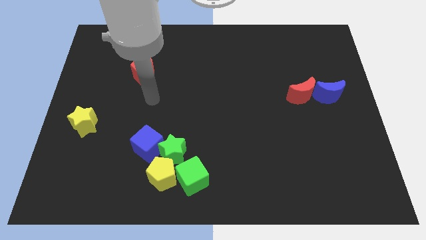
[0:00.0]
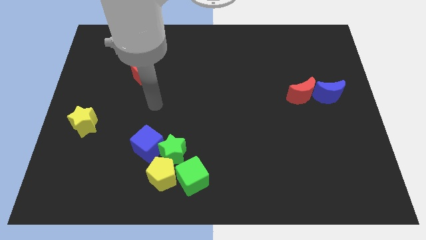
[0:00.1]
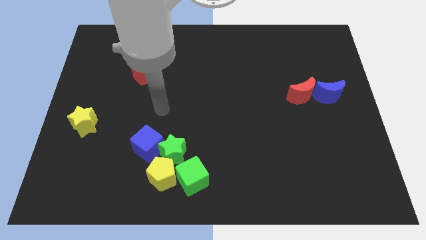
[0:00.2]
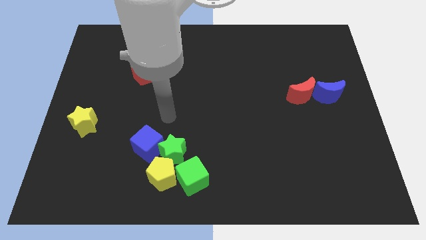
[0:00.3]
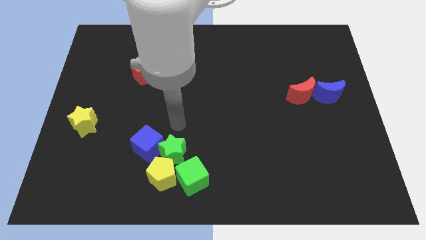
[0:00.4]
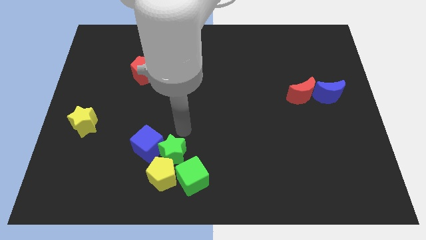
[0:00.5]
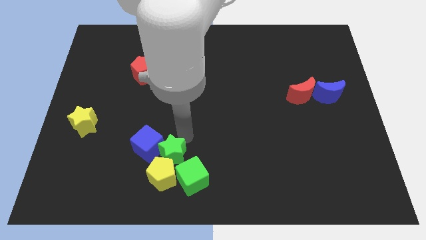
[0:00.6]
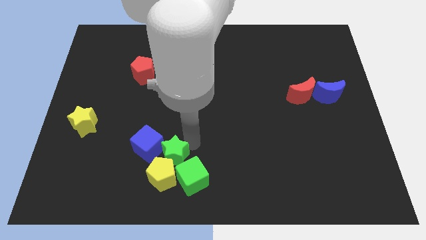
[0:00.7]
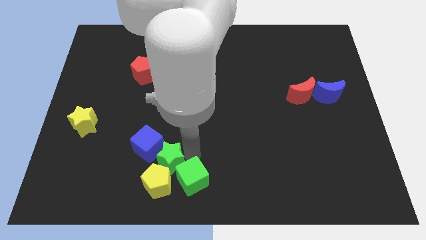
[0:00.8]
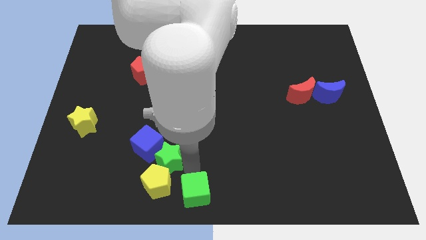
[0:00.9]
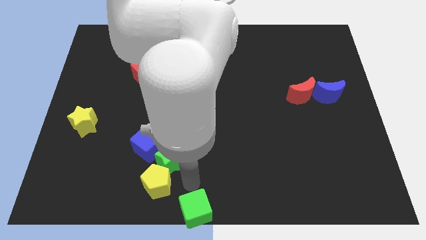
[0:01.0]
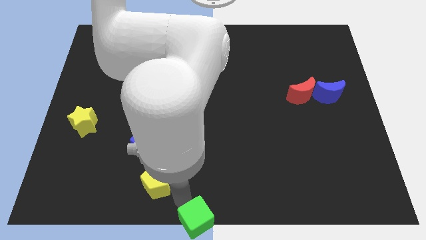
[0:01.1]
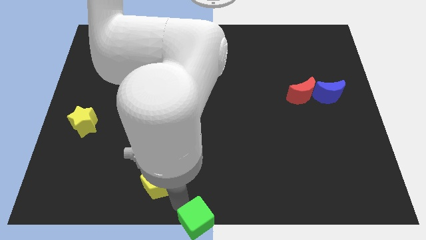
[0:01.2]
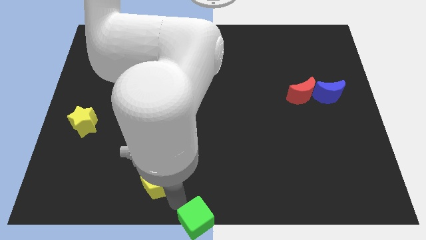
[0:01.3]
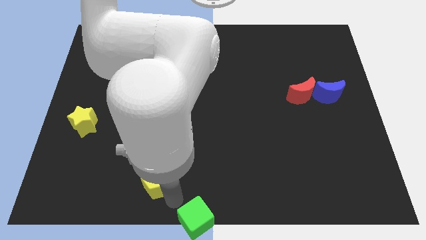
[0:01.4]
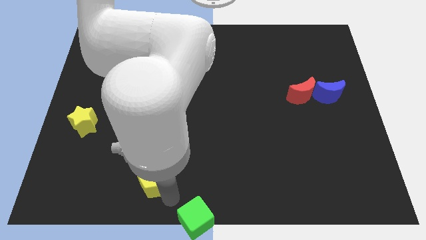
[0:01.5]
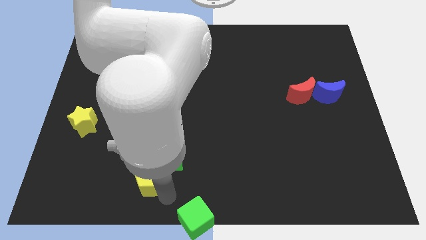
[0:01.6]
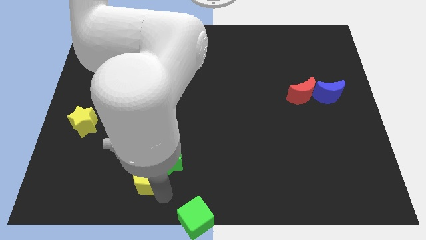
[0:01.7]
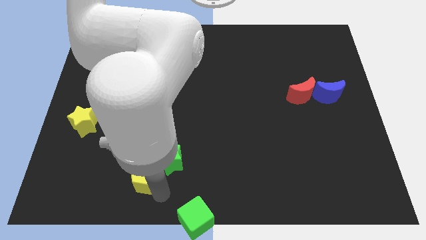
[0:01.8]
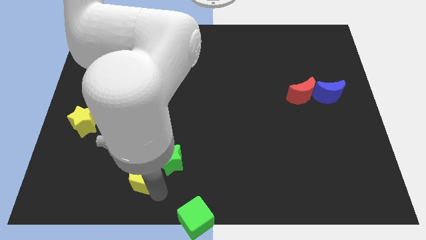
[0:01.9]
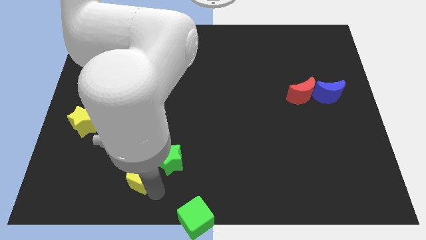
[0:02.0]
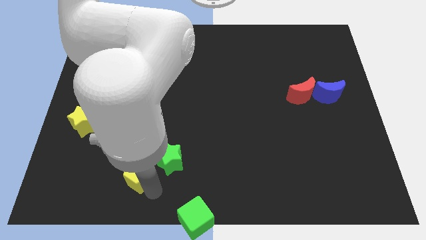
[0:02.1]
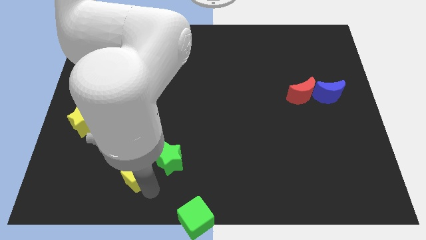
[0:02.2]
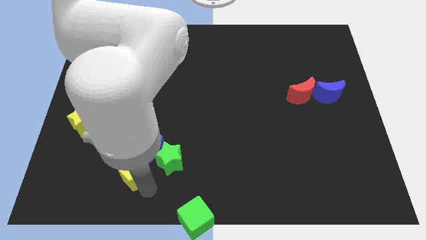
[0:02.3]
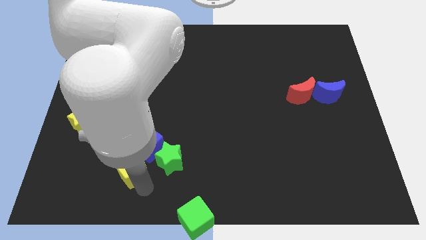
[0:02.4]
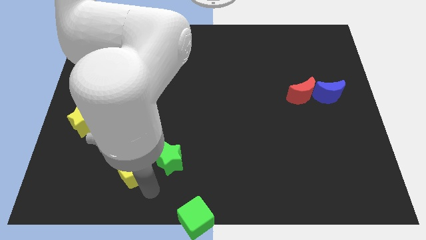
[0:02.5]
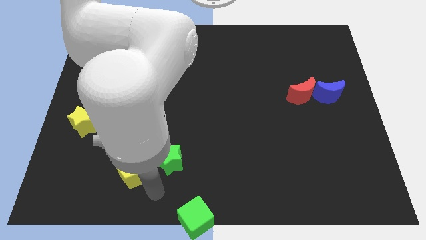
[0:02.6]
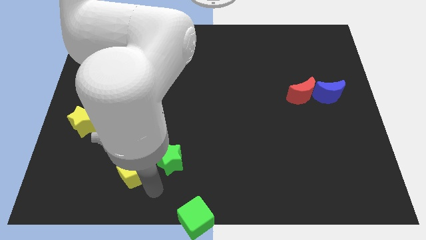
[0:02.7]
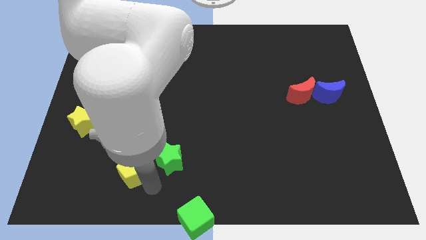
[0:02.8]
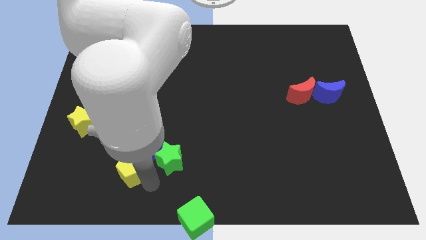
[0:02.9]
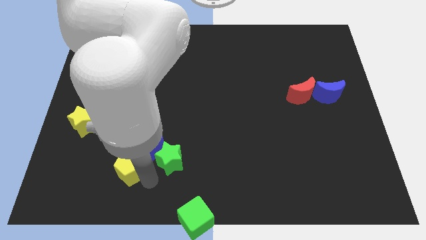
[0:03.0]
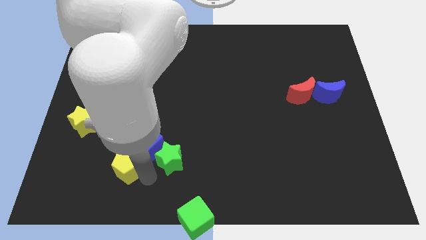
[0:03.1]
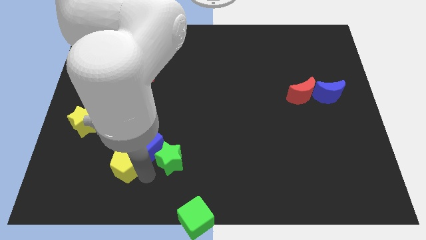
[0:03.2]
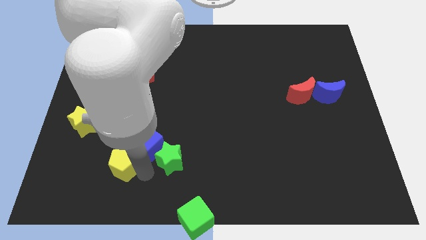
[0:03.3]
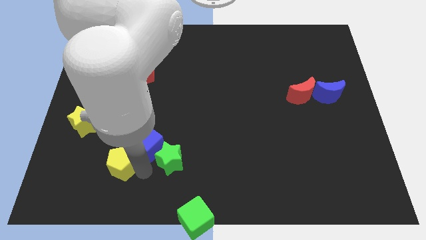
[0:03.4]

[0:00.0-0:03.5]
push the yellow pentagon slightly diagonally up and left

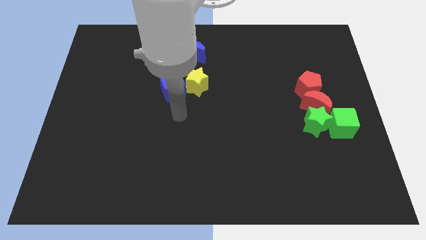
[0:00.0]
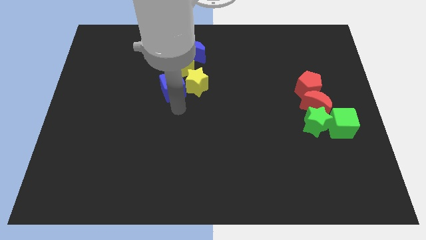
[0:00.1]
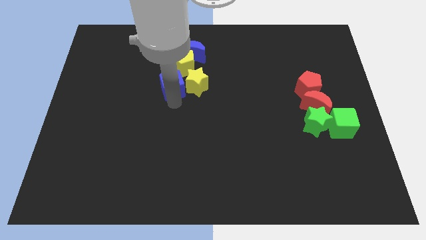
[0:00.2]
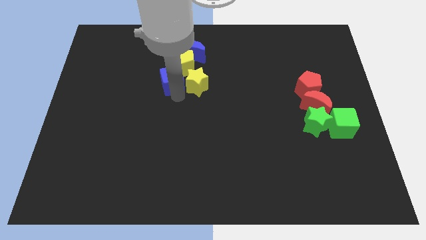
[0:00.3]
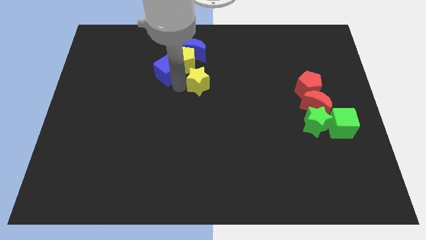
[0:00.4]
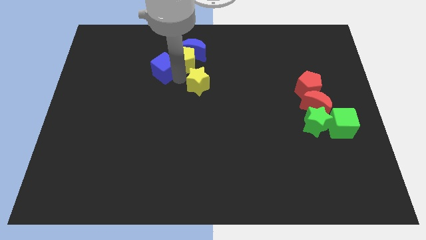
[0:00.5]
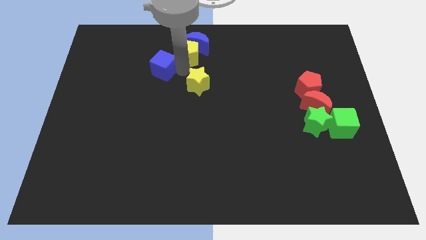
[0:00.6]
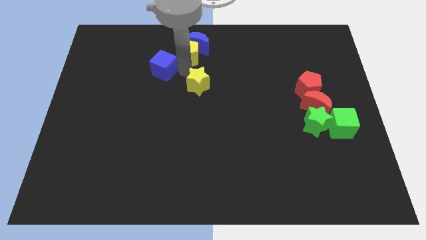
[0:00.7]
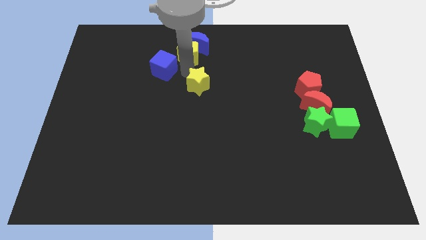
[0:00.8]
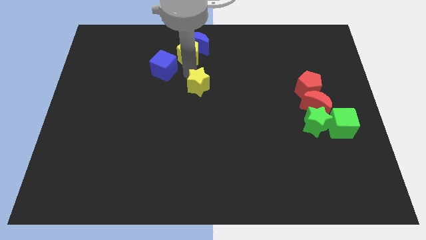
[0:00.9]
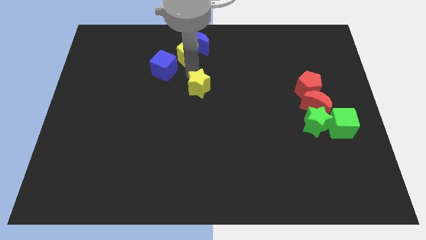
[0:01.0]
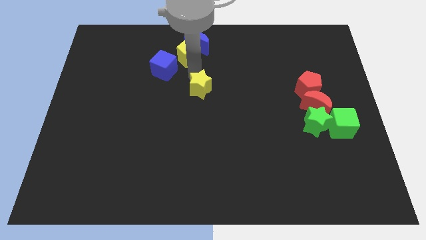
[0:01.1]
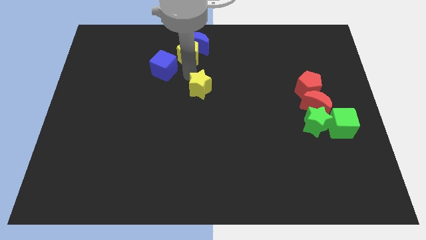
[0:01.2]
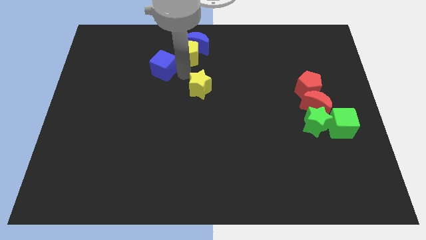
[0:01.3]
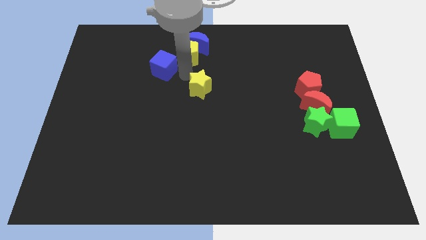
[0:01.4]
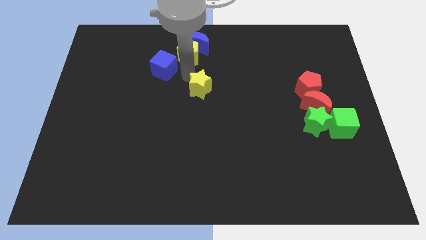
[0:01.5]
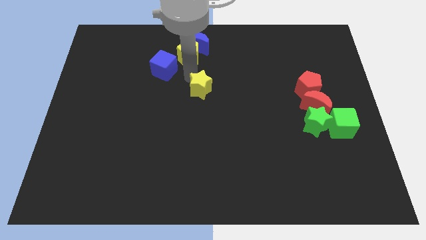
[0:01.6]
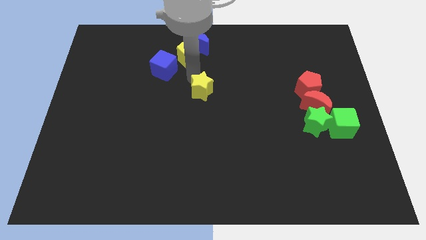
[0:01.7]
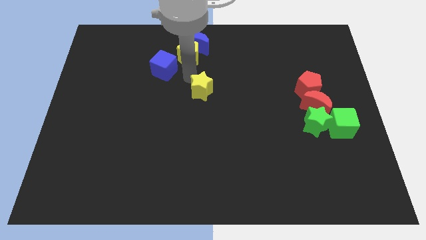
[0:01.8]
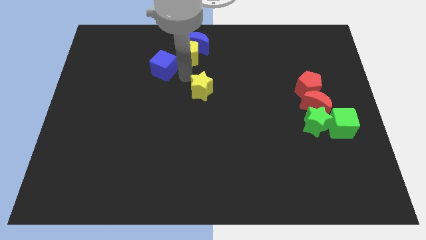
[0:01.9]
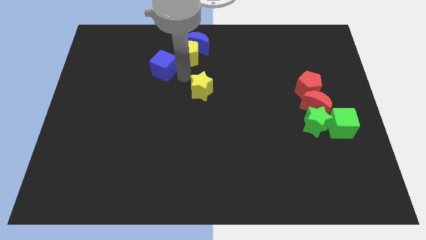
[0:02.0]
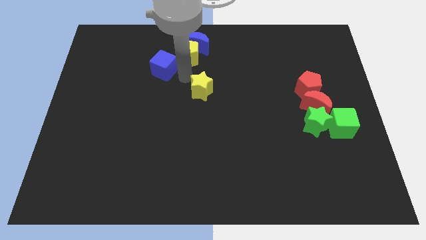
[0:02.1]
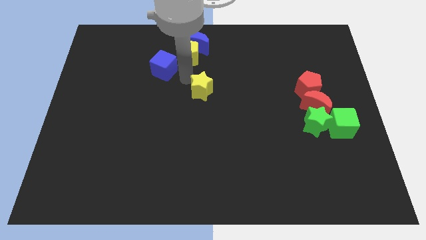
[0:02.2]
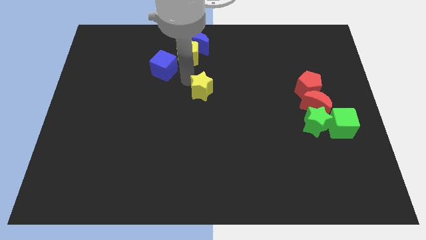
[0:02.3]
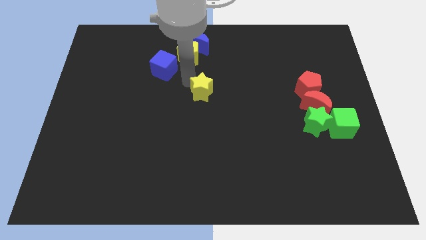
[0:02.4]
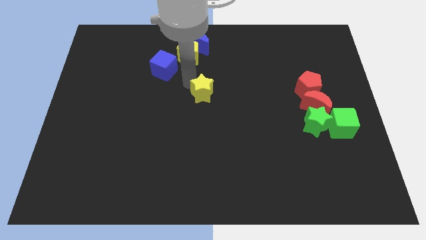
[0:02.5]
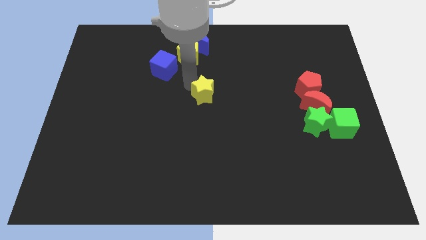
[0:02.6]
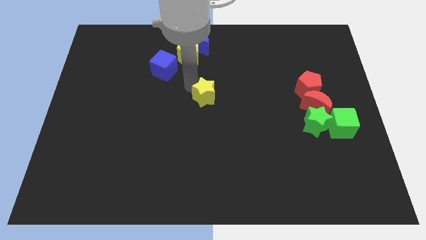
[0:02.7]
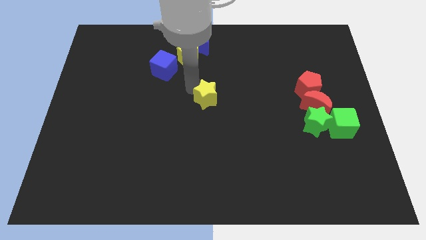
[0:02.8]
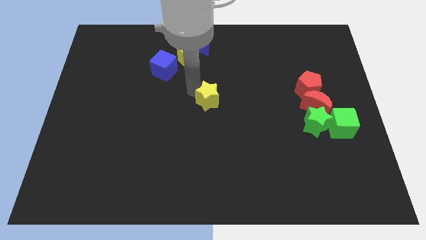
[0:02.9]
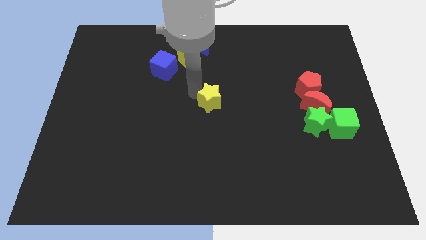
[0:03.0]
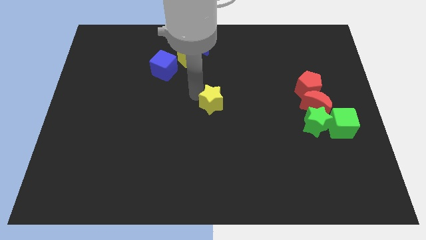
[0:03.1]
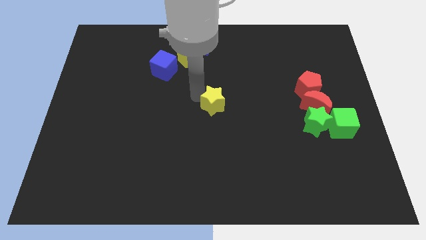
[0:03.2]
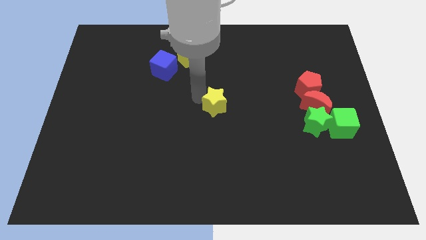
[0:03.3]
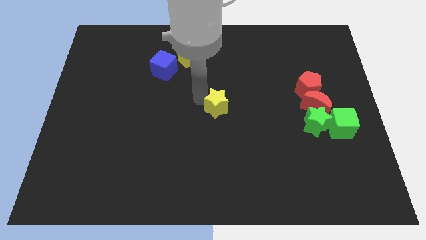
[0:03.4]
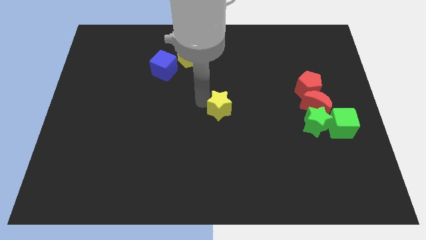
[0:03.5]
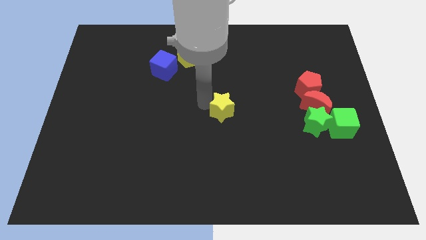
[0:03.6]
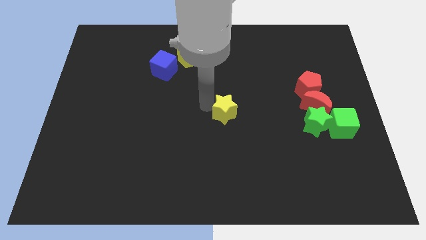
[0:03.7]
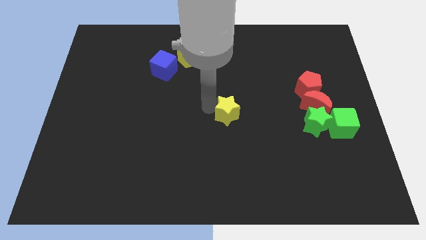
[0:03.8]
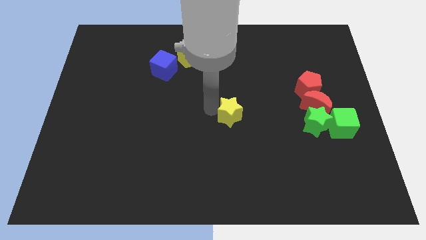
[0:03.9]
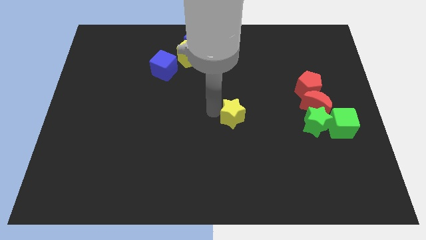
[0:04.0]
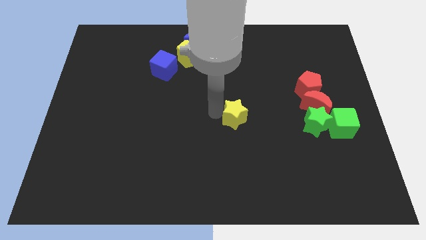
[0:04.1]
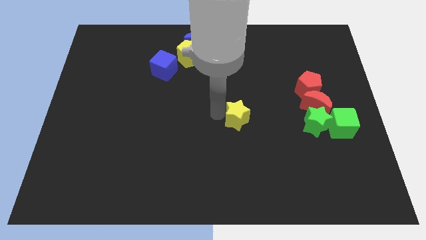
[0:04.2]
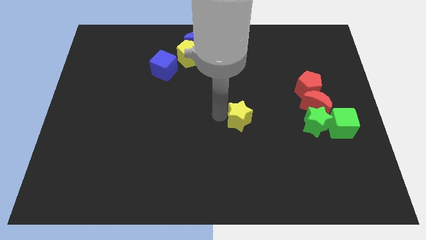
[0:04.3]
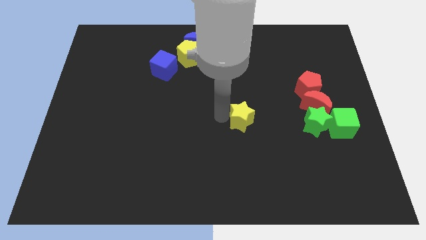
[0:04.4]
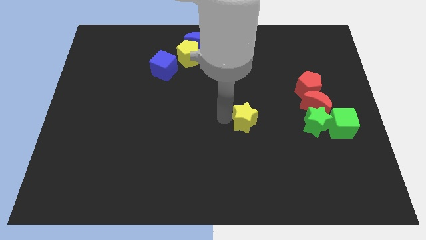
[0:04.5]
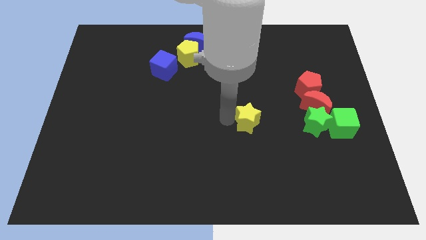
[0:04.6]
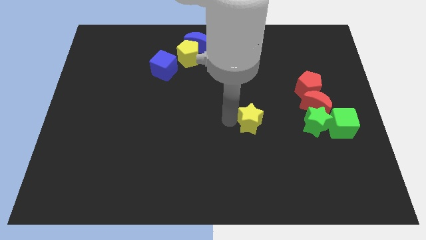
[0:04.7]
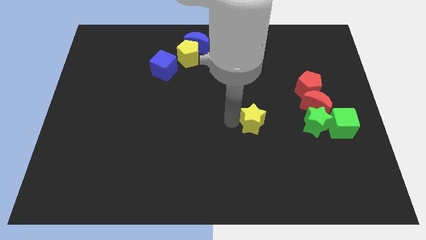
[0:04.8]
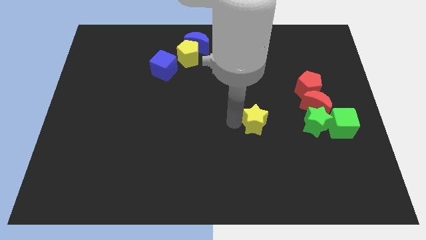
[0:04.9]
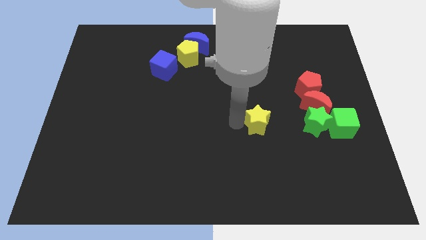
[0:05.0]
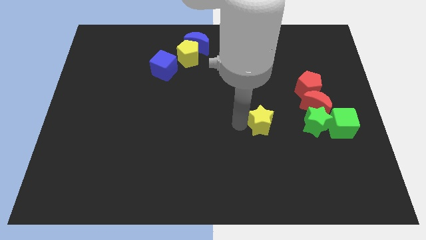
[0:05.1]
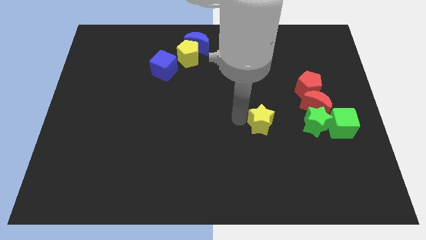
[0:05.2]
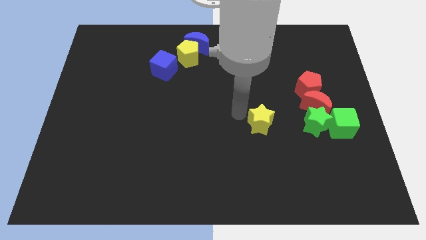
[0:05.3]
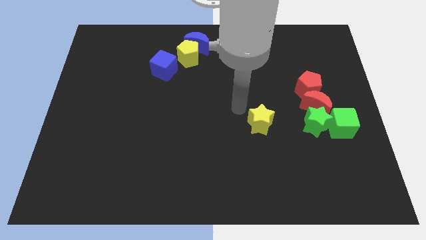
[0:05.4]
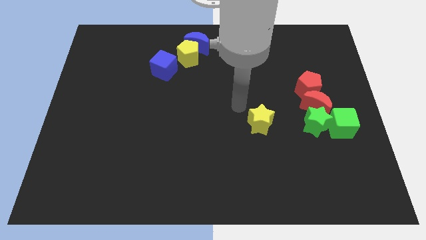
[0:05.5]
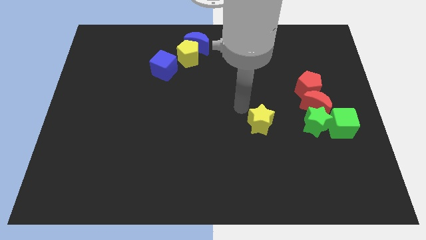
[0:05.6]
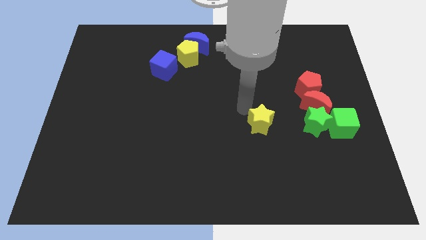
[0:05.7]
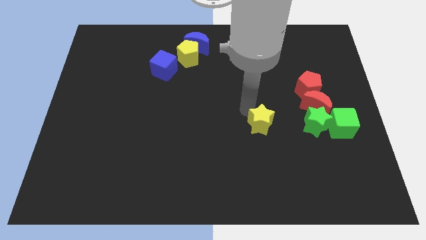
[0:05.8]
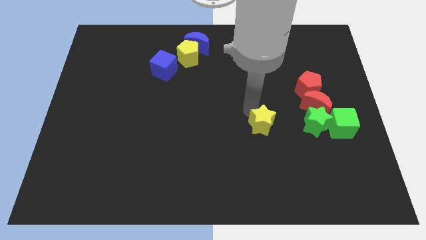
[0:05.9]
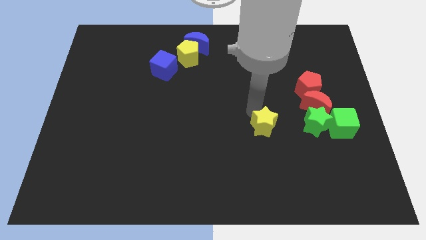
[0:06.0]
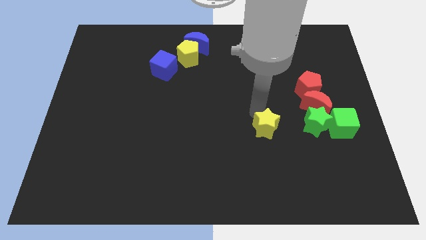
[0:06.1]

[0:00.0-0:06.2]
slide the yellow star downwards and right diagonally
